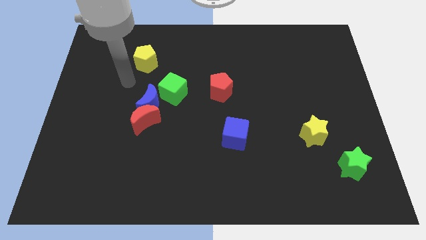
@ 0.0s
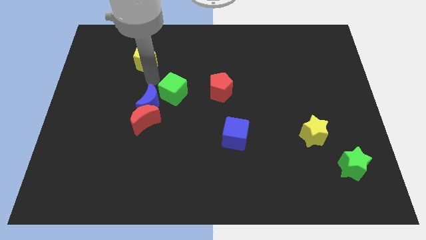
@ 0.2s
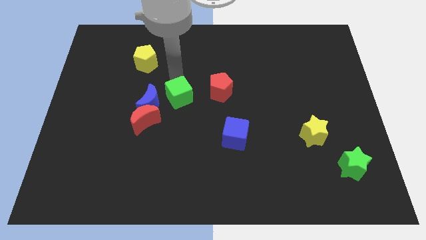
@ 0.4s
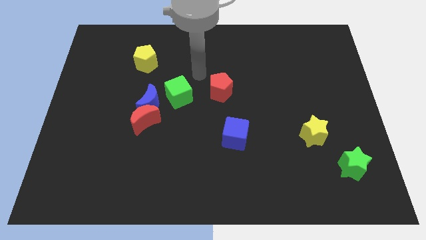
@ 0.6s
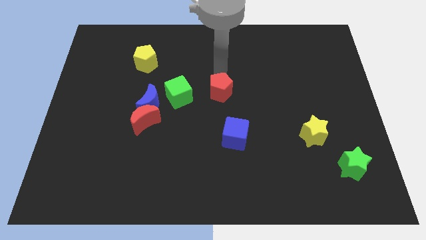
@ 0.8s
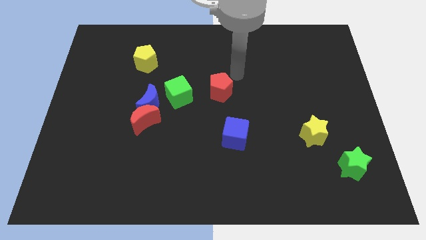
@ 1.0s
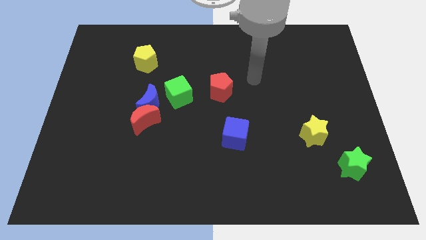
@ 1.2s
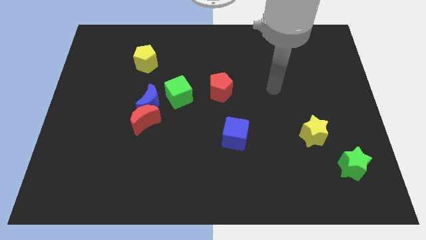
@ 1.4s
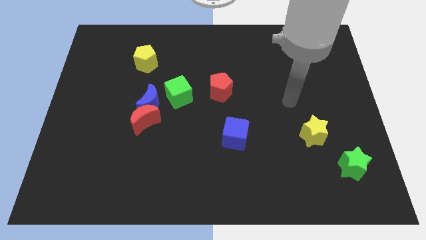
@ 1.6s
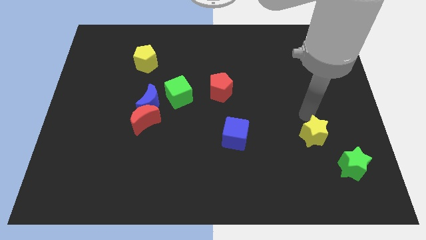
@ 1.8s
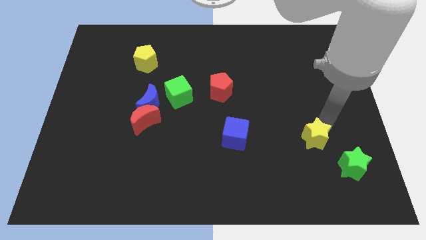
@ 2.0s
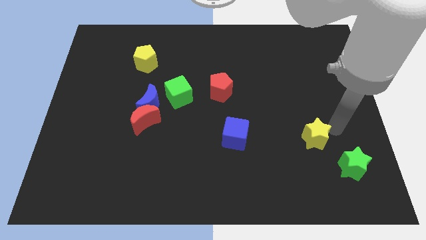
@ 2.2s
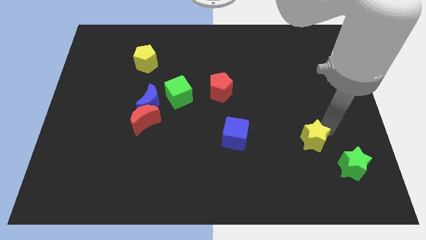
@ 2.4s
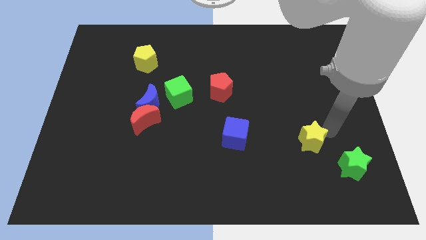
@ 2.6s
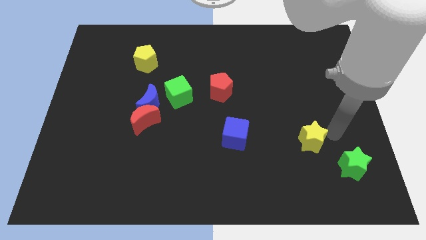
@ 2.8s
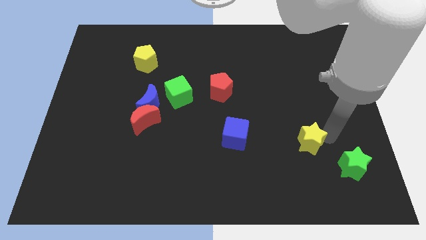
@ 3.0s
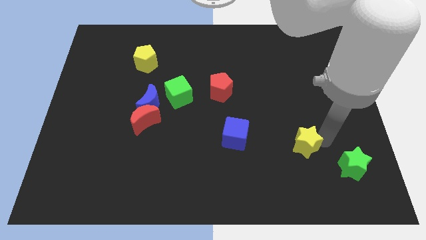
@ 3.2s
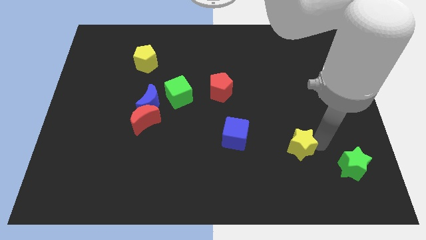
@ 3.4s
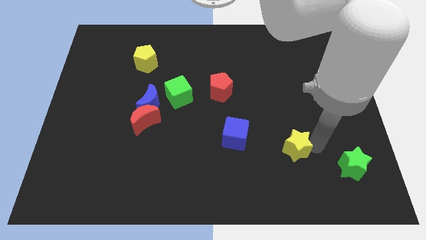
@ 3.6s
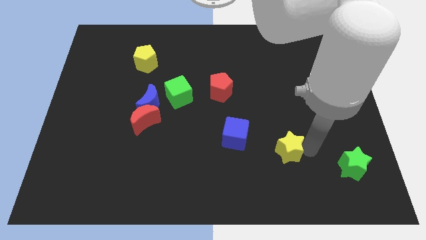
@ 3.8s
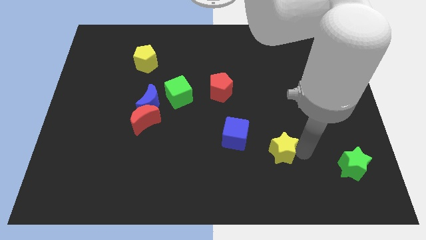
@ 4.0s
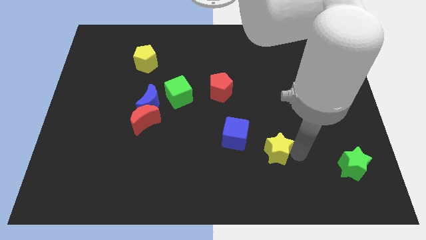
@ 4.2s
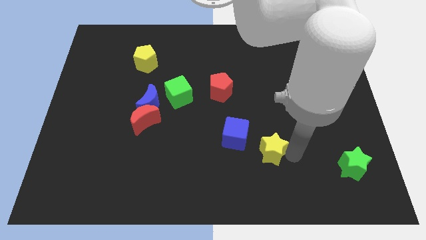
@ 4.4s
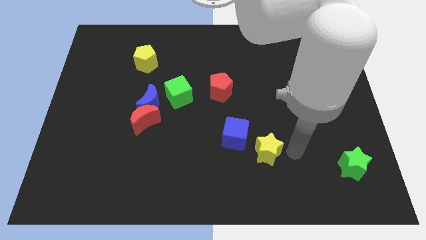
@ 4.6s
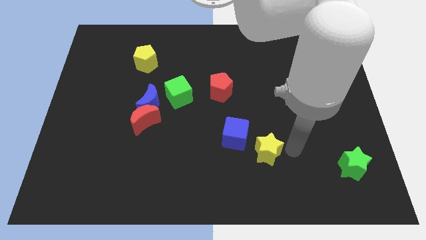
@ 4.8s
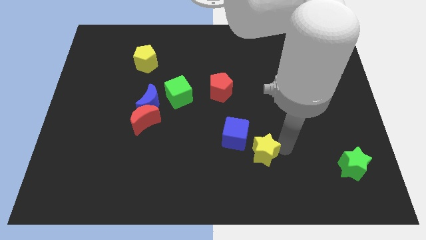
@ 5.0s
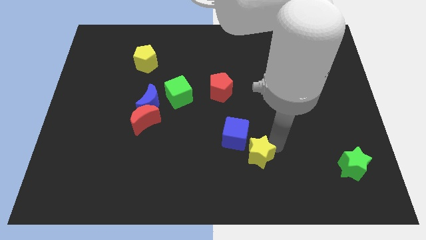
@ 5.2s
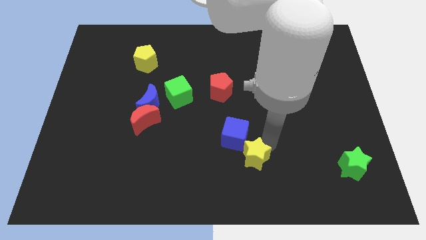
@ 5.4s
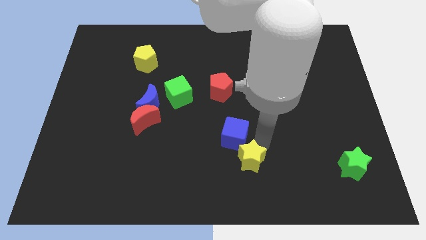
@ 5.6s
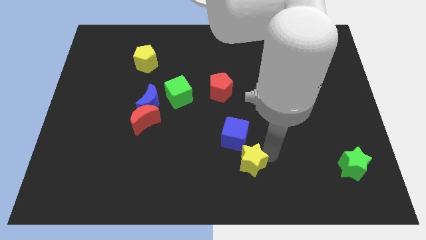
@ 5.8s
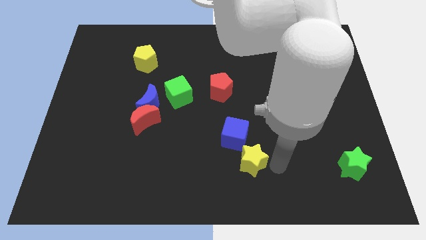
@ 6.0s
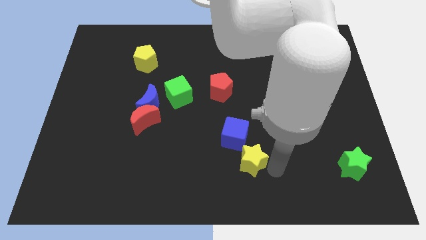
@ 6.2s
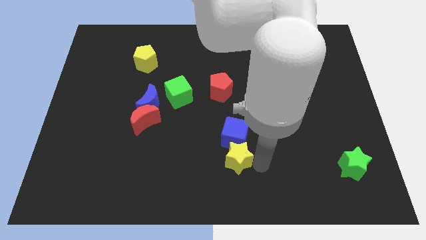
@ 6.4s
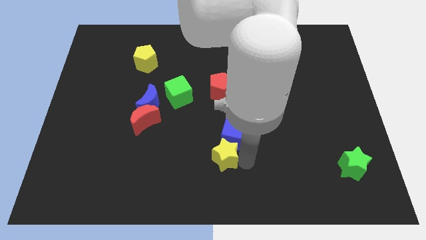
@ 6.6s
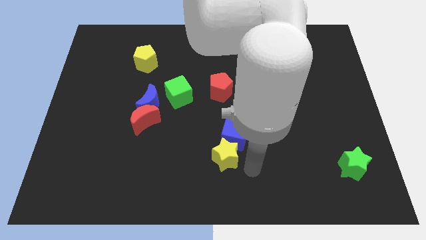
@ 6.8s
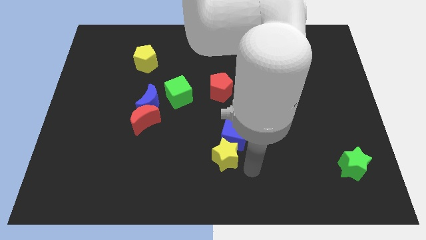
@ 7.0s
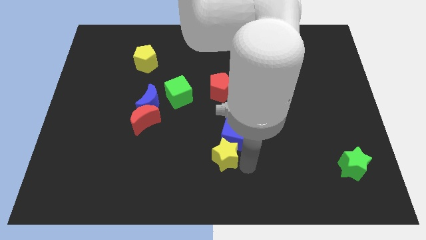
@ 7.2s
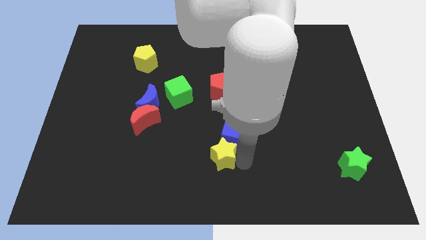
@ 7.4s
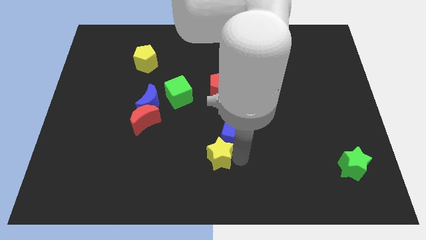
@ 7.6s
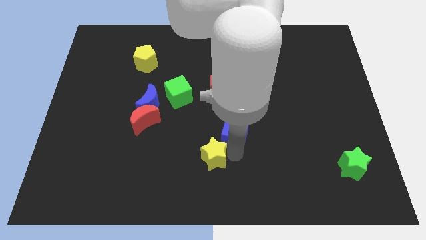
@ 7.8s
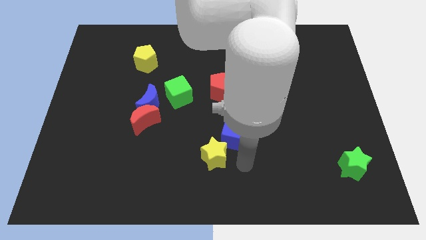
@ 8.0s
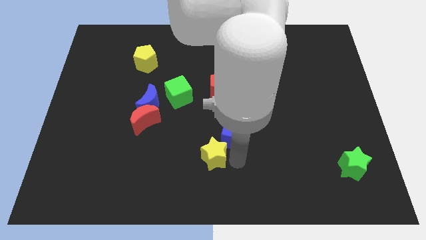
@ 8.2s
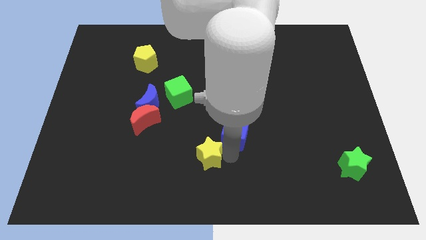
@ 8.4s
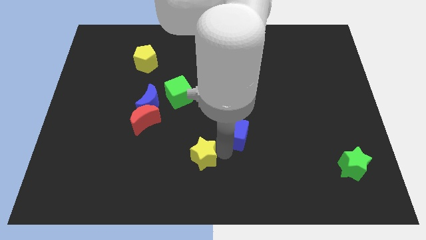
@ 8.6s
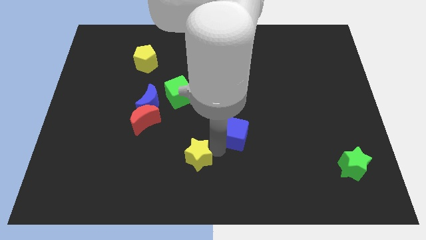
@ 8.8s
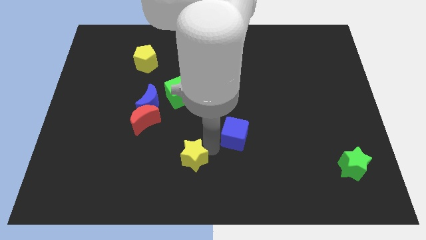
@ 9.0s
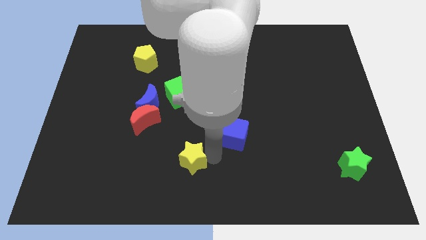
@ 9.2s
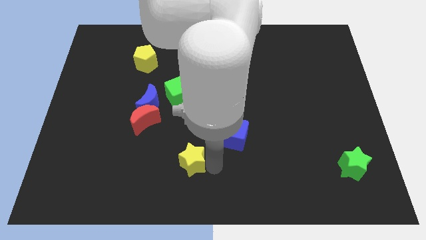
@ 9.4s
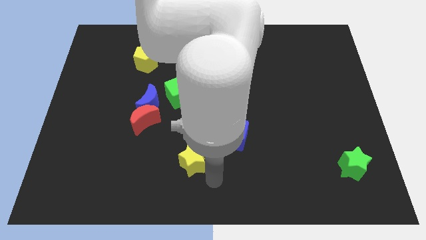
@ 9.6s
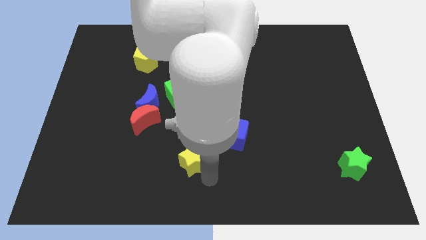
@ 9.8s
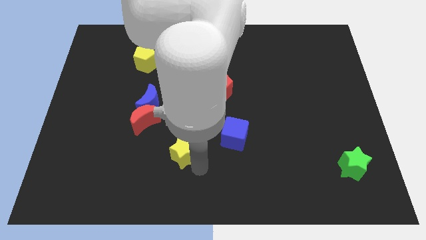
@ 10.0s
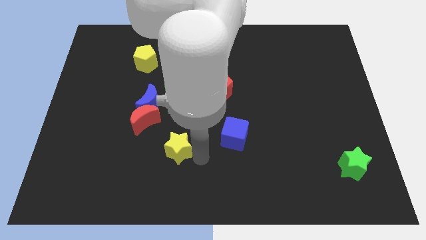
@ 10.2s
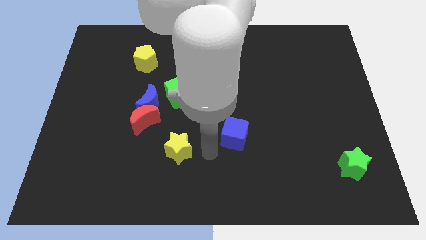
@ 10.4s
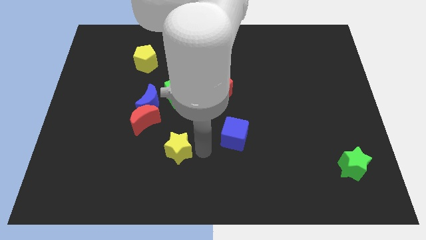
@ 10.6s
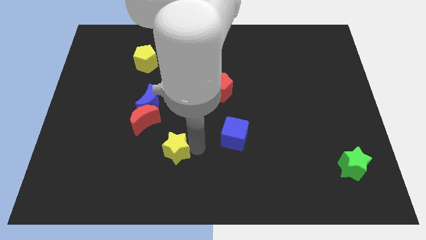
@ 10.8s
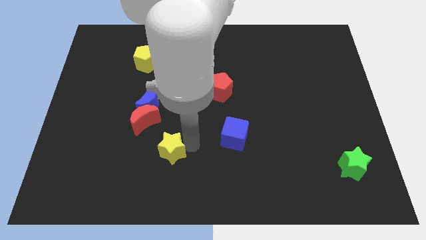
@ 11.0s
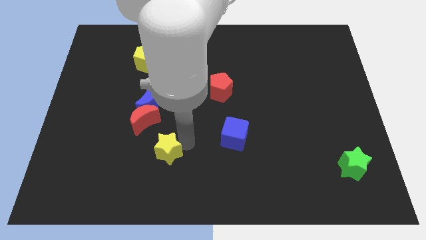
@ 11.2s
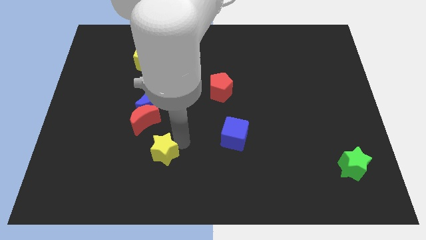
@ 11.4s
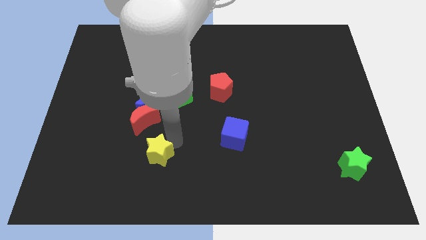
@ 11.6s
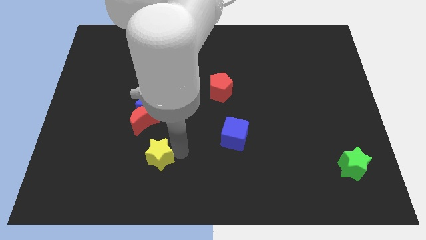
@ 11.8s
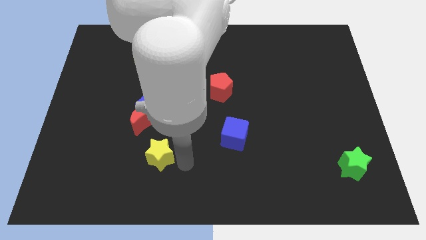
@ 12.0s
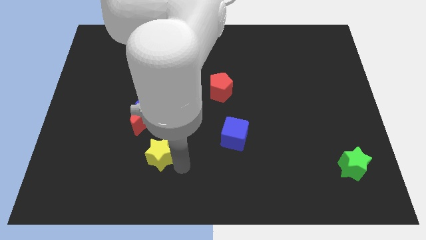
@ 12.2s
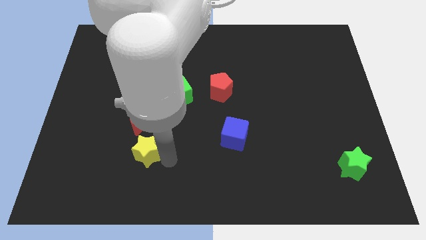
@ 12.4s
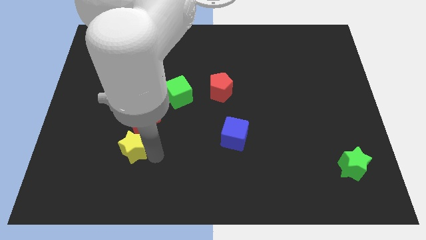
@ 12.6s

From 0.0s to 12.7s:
push the yellow star to the bottom left of the red moon

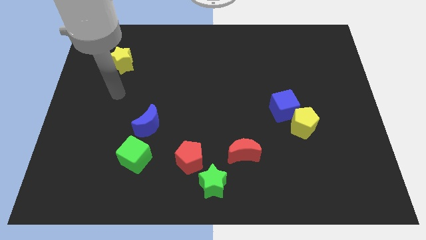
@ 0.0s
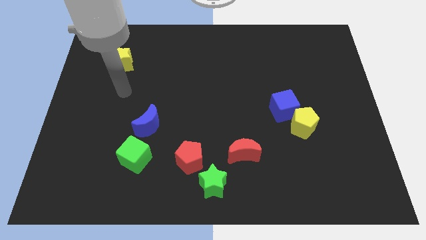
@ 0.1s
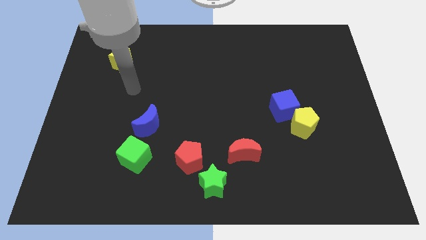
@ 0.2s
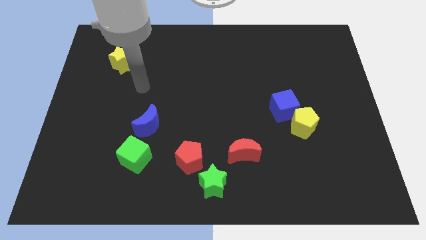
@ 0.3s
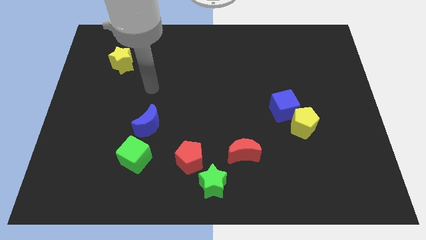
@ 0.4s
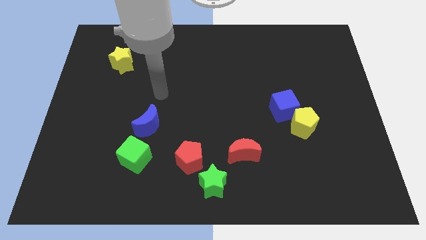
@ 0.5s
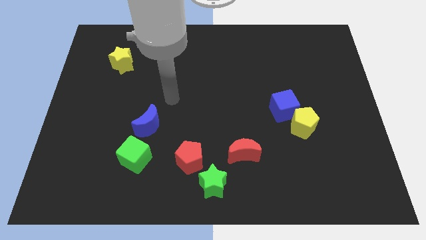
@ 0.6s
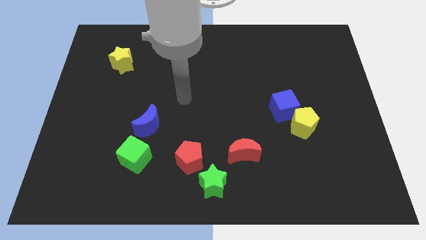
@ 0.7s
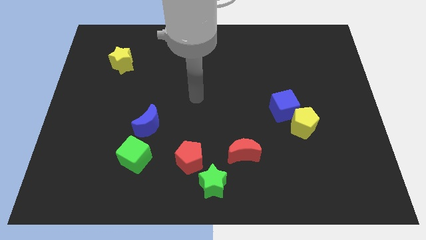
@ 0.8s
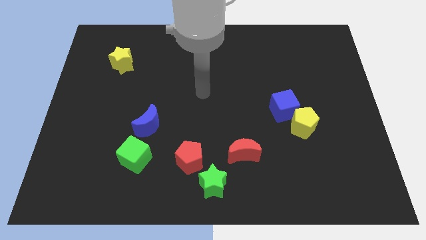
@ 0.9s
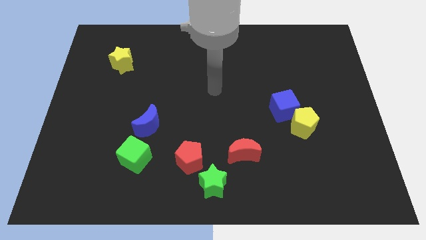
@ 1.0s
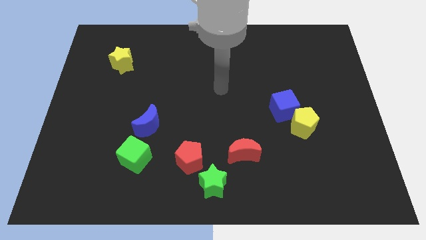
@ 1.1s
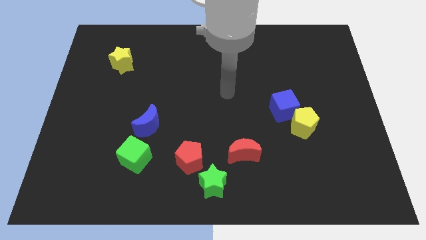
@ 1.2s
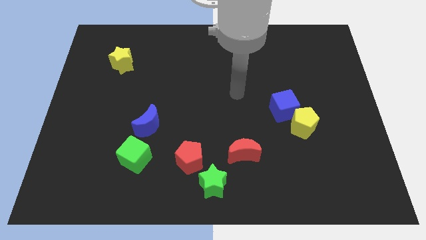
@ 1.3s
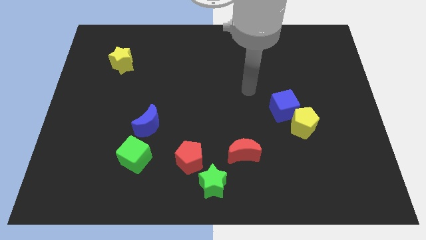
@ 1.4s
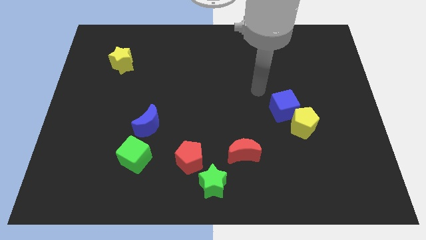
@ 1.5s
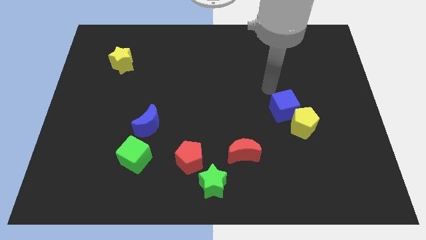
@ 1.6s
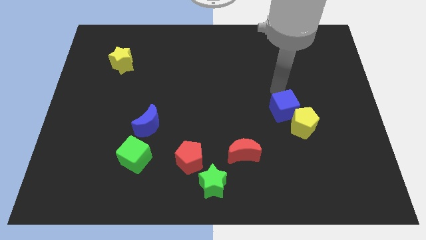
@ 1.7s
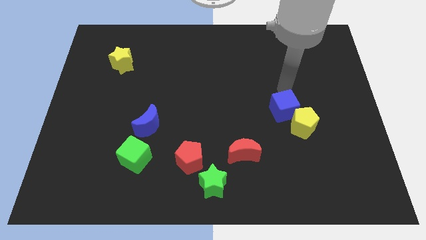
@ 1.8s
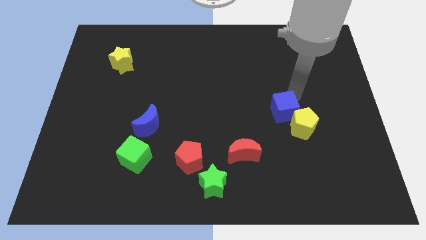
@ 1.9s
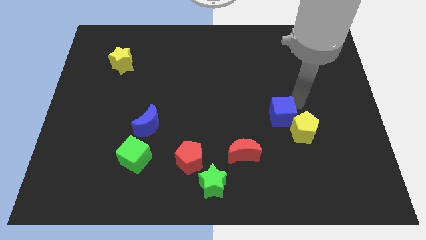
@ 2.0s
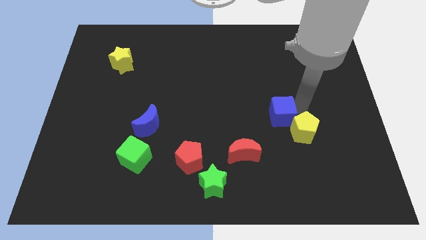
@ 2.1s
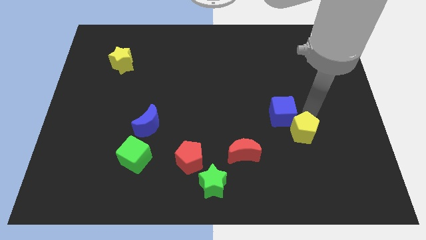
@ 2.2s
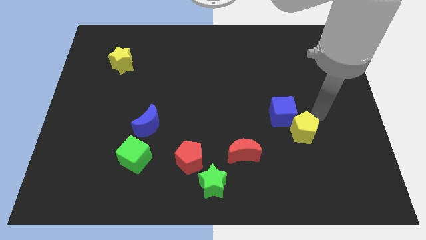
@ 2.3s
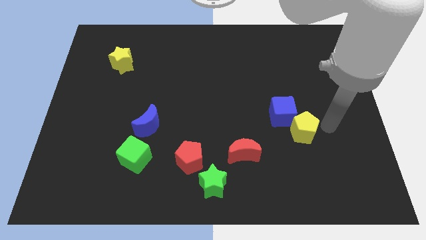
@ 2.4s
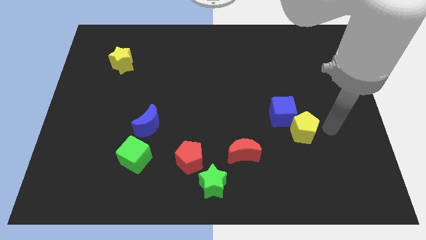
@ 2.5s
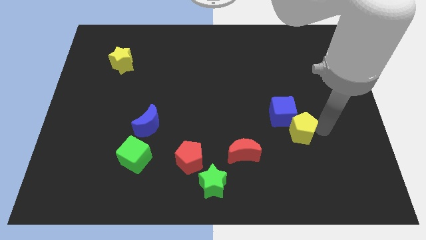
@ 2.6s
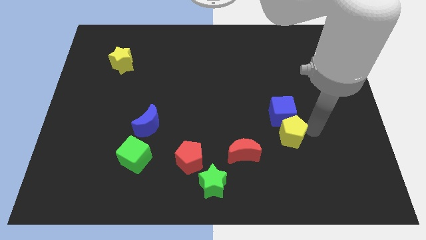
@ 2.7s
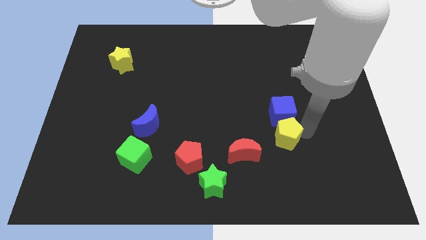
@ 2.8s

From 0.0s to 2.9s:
move the yellow pentagon to the top right of the red moon
